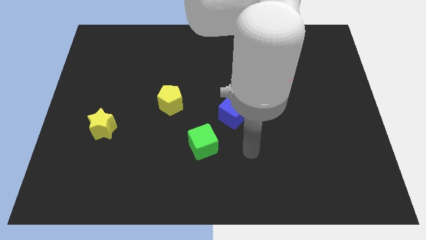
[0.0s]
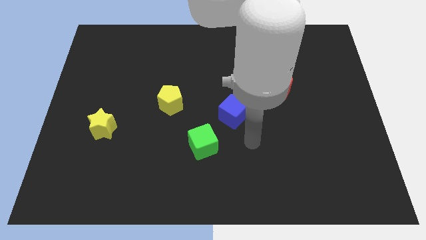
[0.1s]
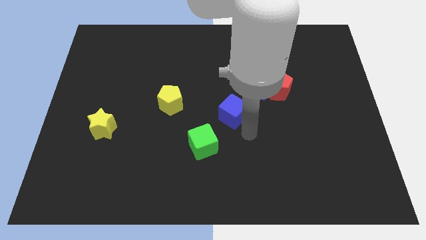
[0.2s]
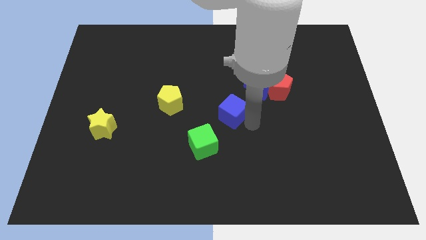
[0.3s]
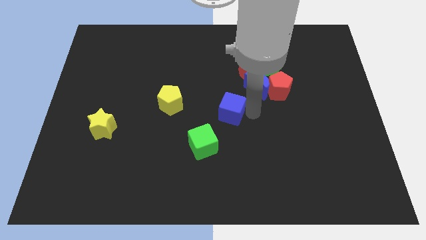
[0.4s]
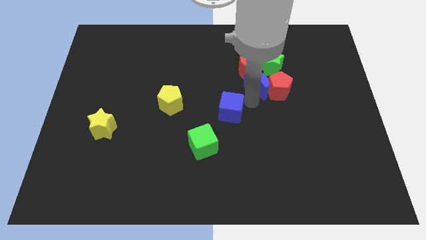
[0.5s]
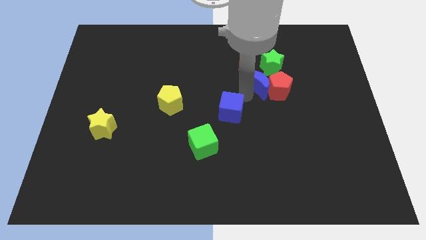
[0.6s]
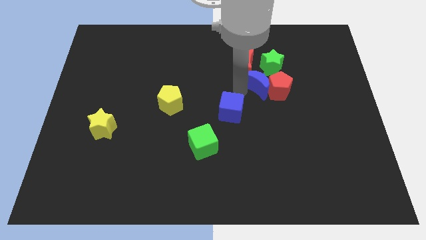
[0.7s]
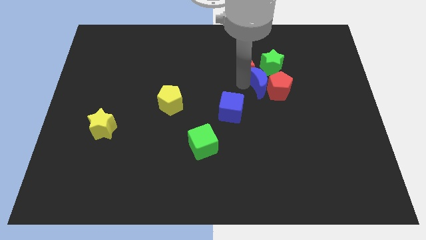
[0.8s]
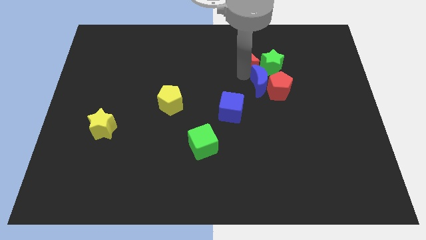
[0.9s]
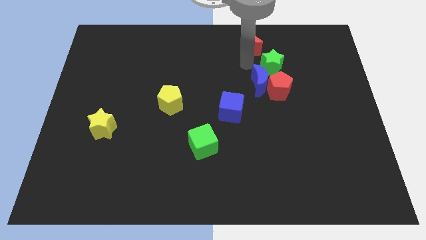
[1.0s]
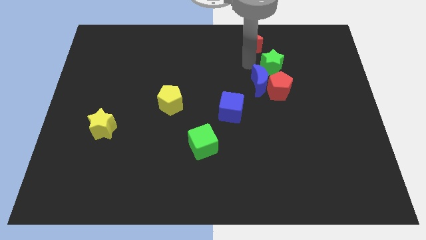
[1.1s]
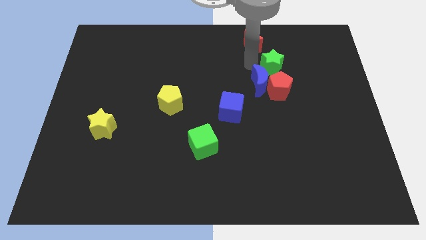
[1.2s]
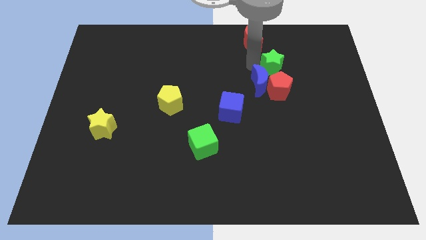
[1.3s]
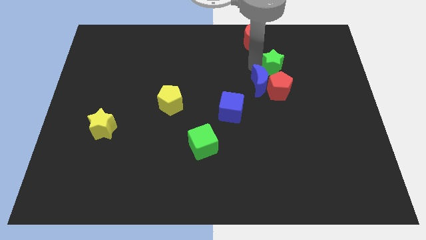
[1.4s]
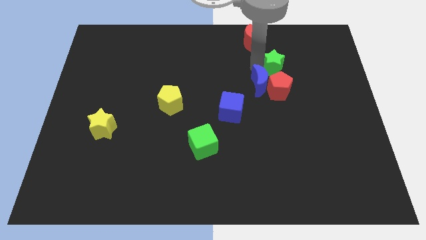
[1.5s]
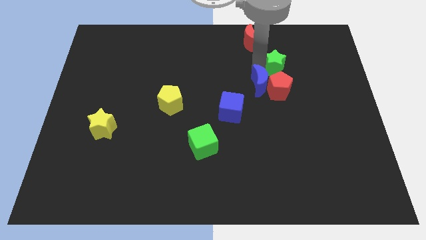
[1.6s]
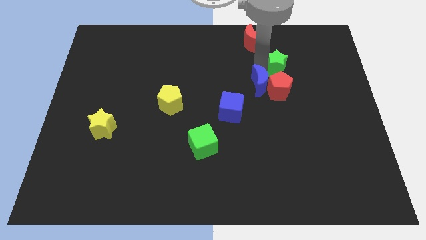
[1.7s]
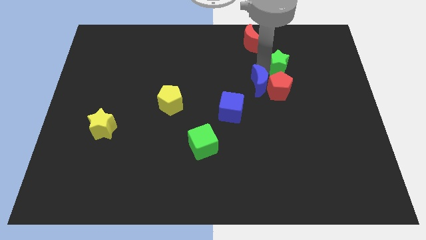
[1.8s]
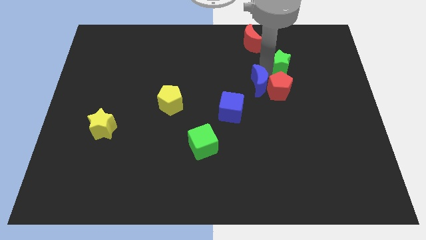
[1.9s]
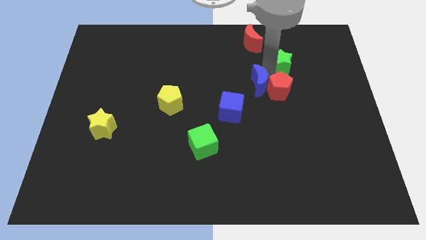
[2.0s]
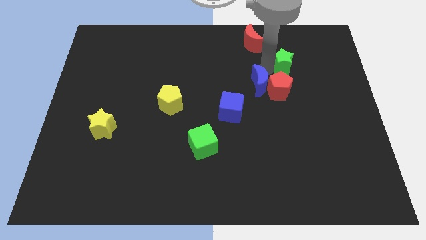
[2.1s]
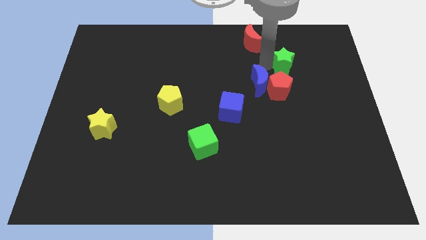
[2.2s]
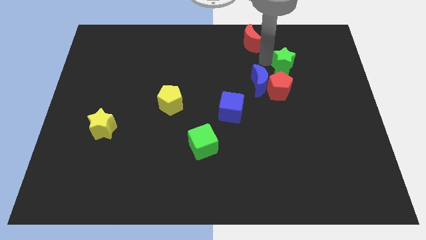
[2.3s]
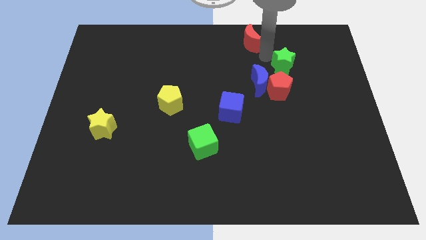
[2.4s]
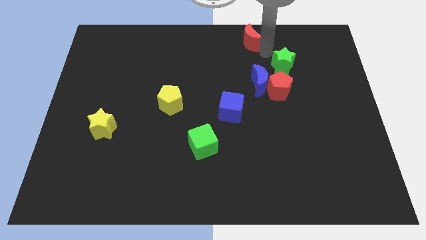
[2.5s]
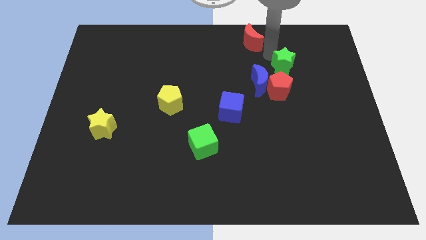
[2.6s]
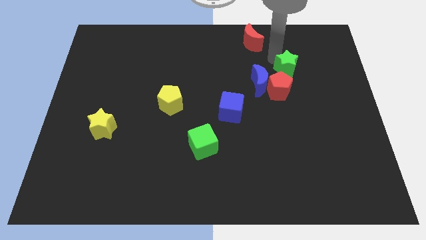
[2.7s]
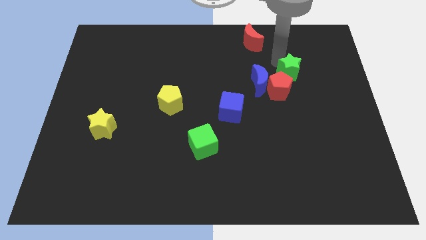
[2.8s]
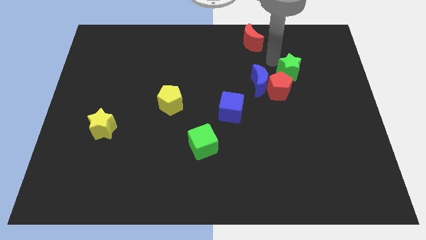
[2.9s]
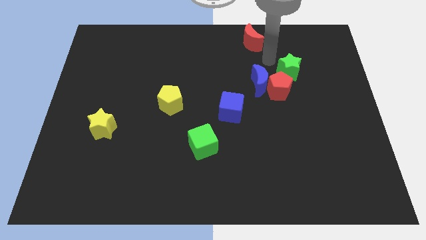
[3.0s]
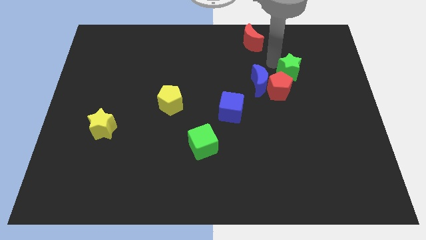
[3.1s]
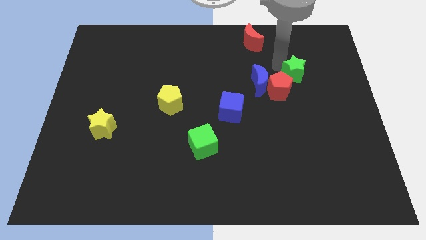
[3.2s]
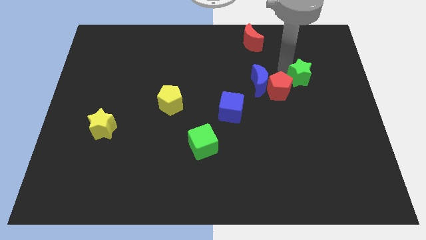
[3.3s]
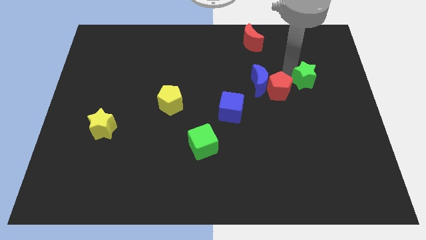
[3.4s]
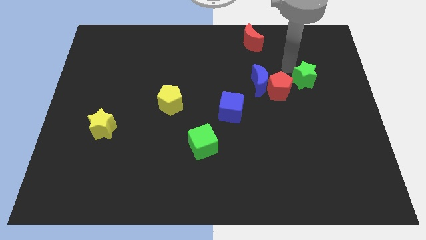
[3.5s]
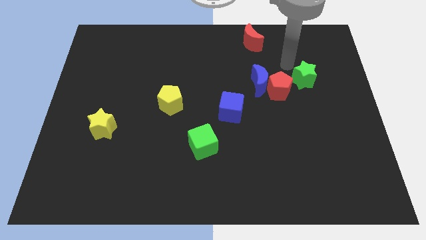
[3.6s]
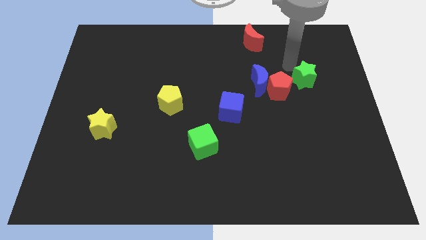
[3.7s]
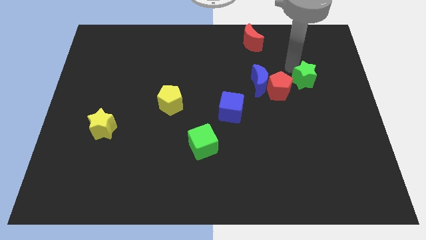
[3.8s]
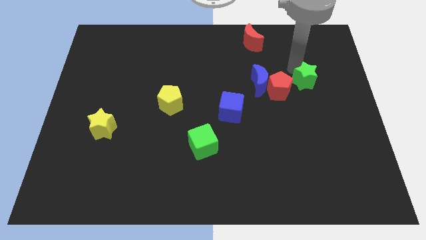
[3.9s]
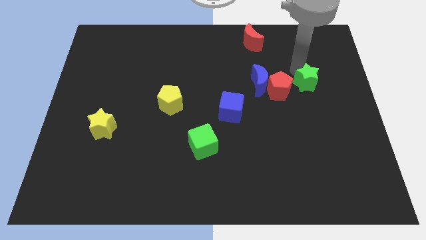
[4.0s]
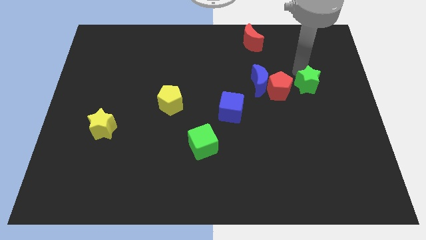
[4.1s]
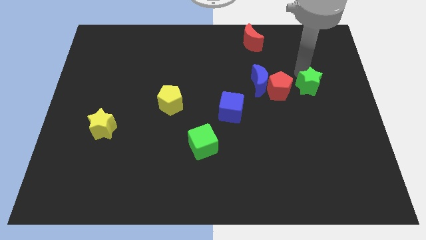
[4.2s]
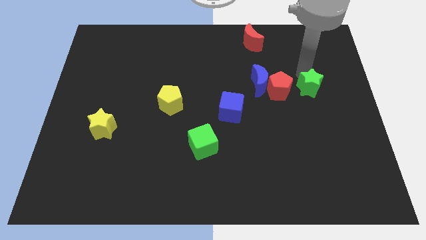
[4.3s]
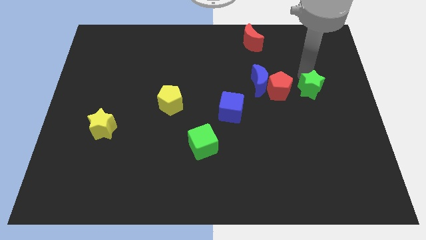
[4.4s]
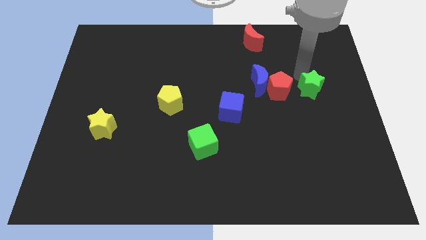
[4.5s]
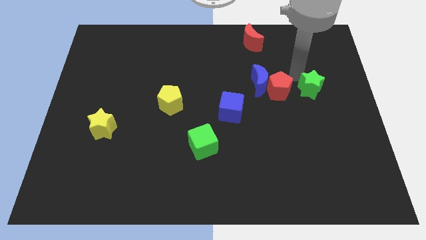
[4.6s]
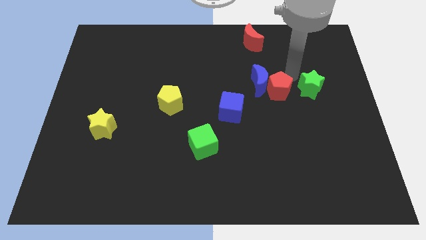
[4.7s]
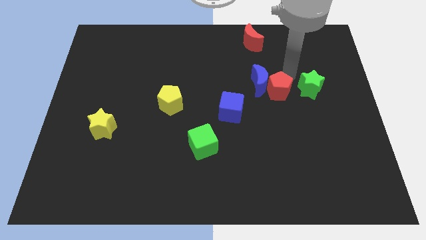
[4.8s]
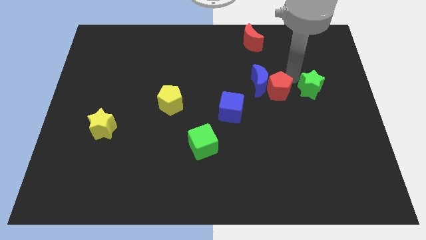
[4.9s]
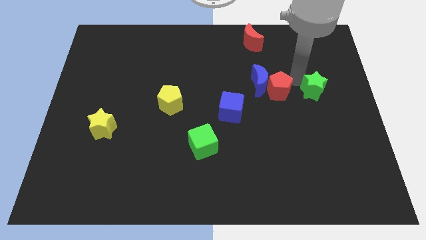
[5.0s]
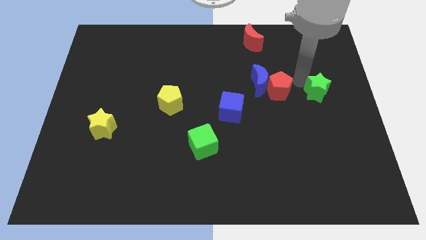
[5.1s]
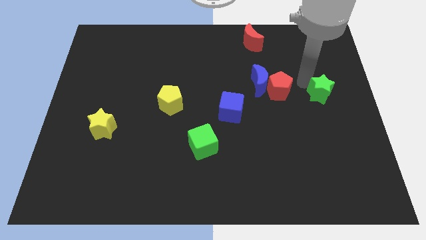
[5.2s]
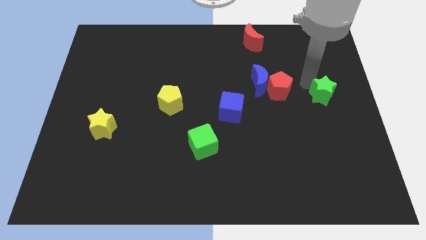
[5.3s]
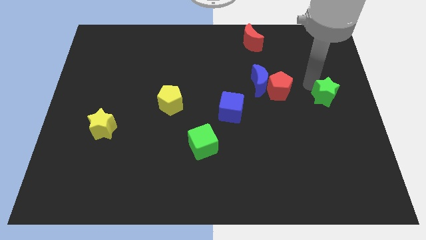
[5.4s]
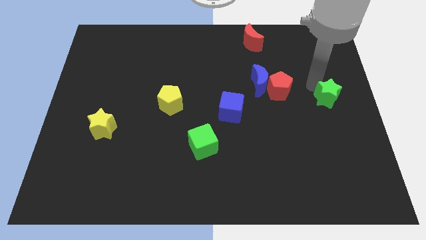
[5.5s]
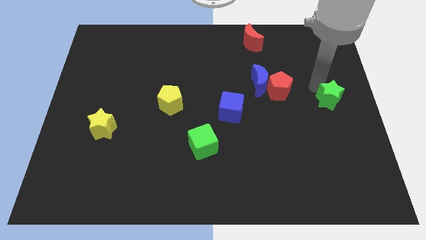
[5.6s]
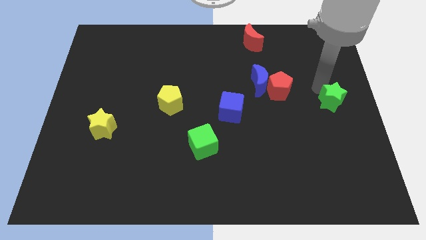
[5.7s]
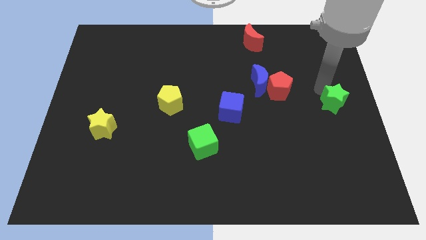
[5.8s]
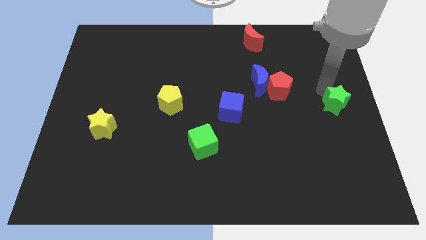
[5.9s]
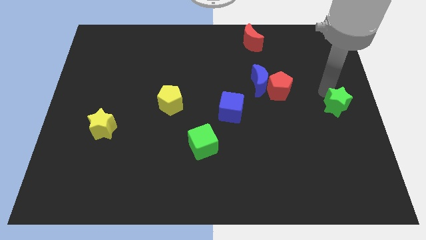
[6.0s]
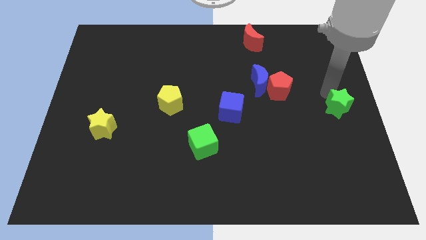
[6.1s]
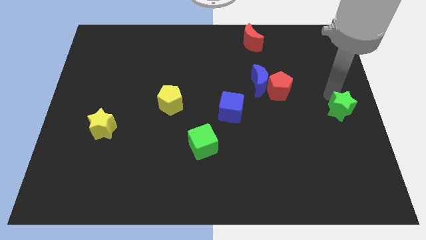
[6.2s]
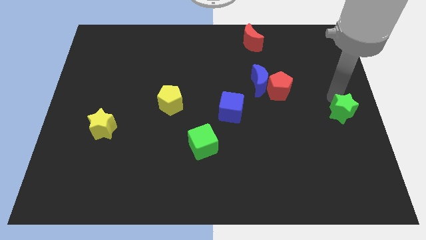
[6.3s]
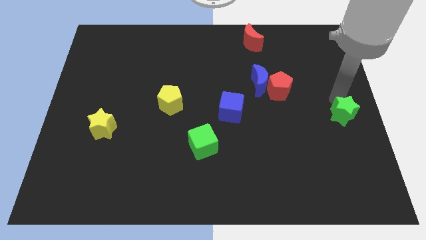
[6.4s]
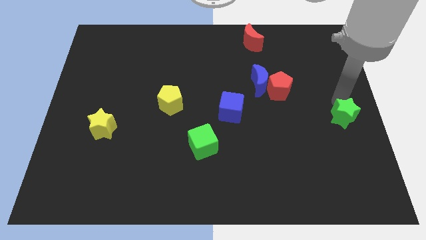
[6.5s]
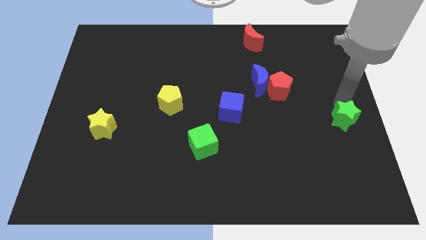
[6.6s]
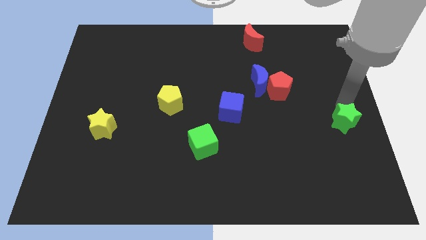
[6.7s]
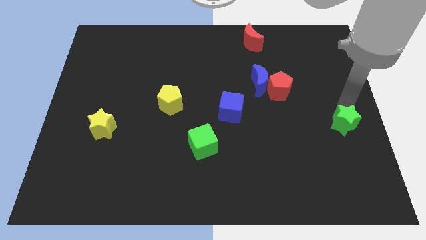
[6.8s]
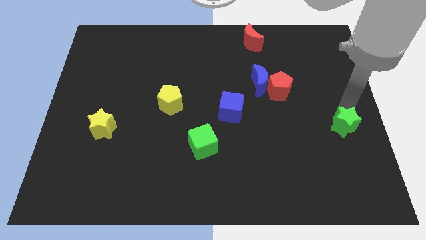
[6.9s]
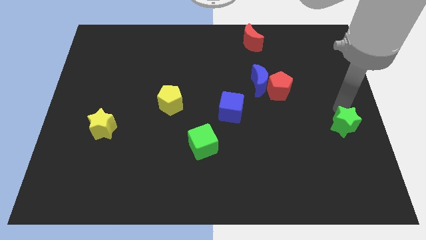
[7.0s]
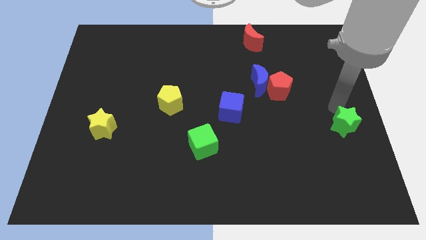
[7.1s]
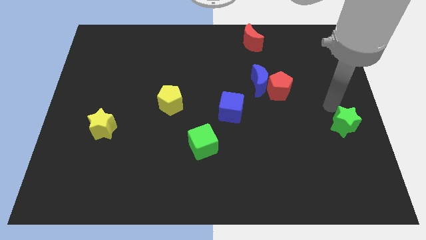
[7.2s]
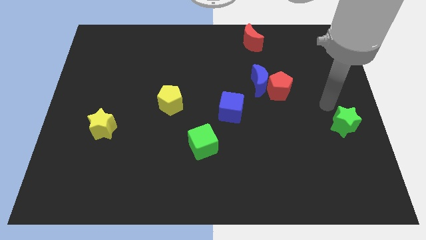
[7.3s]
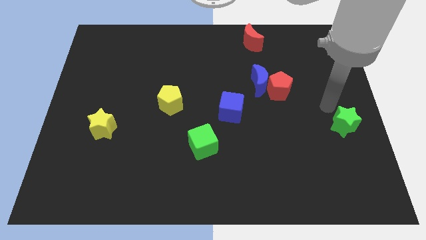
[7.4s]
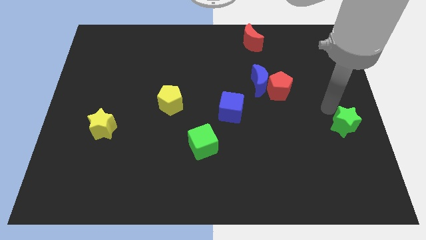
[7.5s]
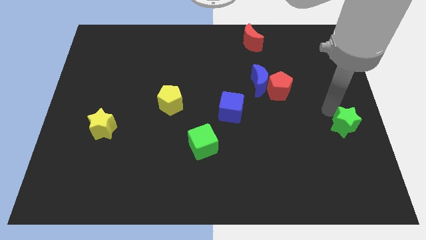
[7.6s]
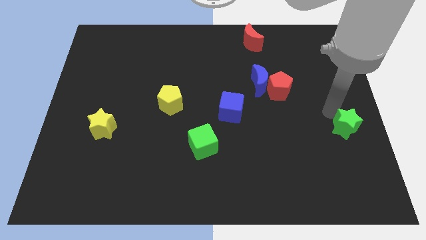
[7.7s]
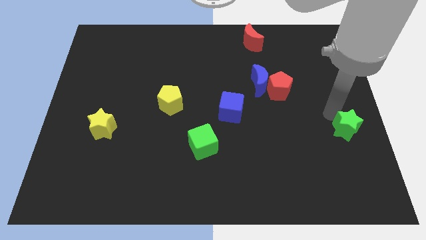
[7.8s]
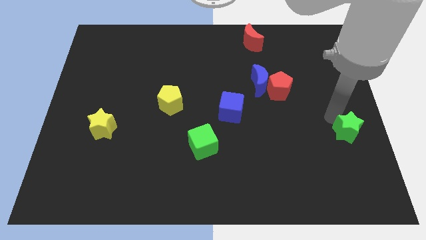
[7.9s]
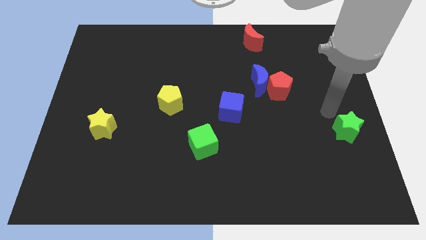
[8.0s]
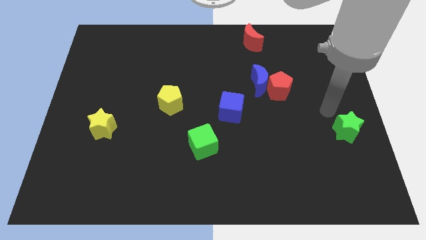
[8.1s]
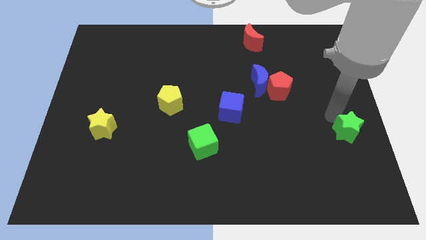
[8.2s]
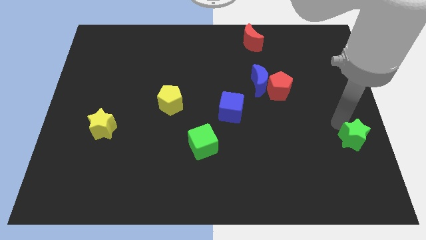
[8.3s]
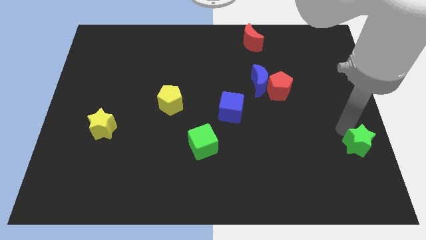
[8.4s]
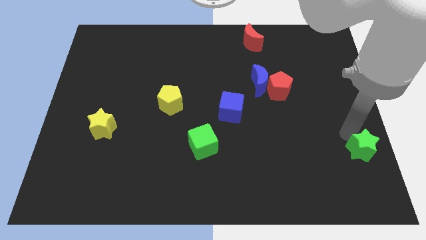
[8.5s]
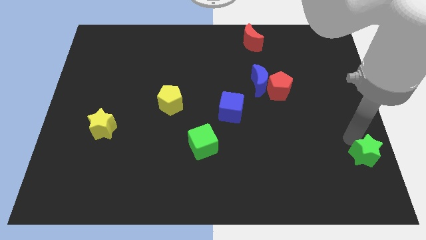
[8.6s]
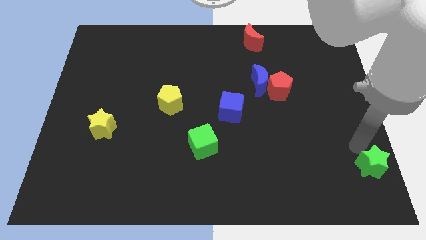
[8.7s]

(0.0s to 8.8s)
slide the green star to the bottom right corner
